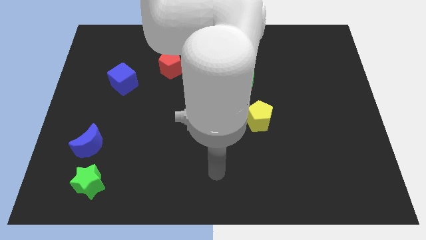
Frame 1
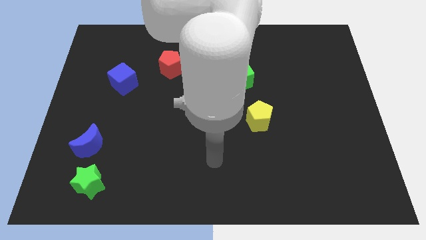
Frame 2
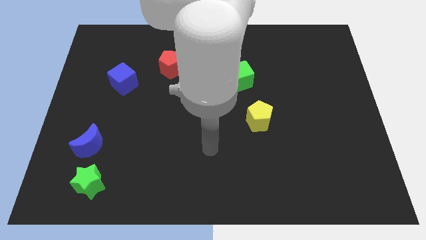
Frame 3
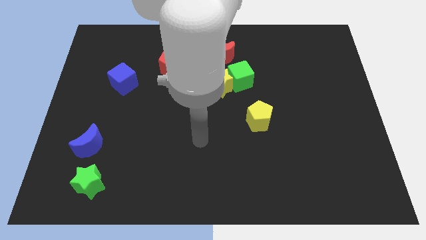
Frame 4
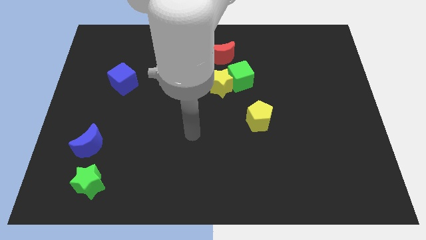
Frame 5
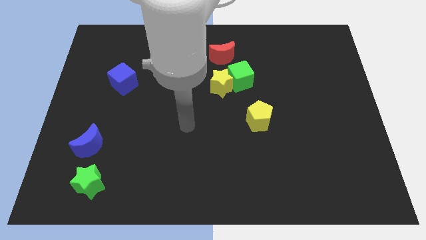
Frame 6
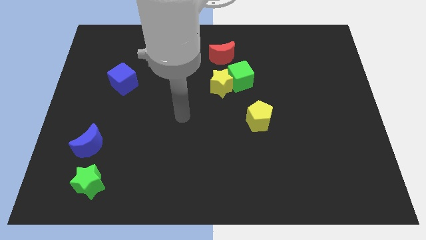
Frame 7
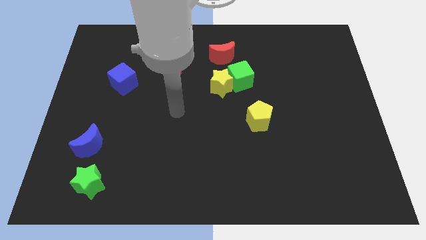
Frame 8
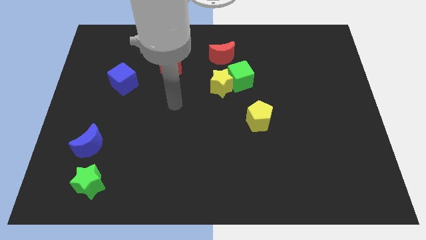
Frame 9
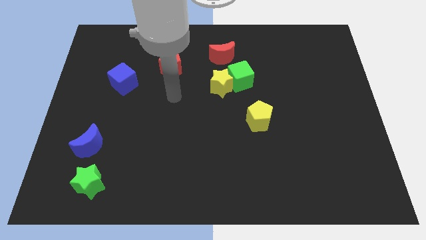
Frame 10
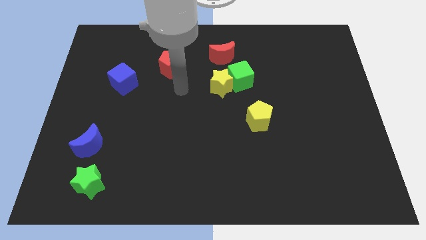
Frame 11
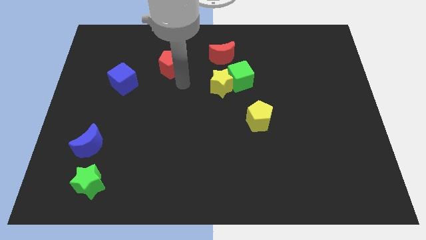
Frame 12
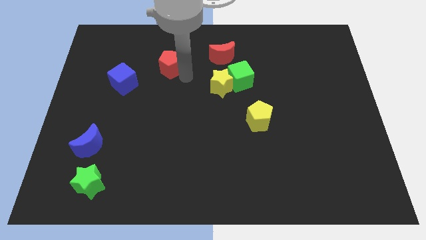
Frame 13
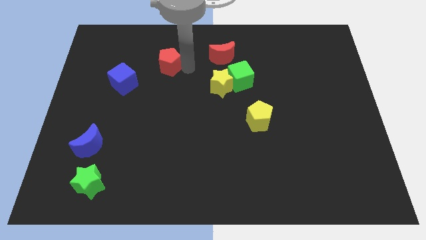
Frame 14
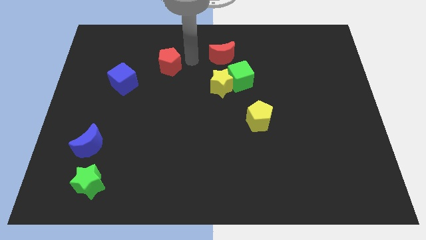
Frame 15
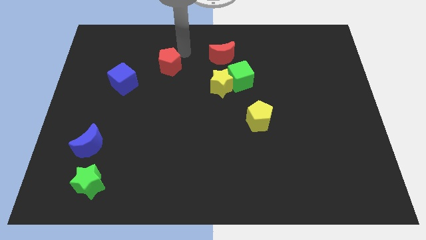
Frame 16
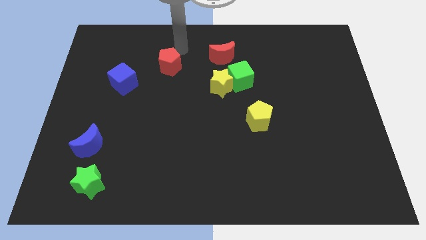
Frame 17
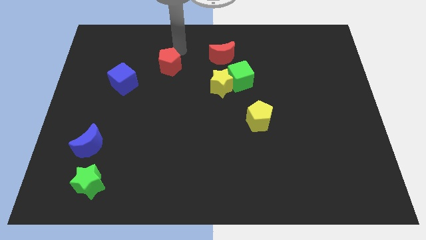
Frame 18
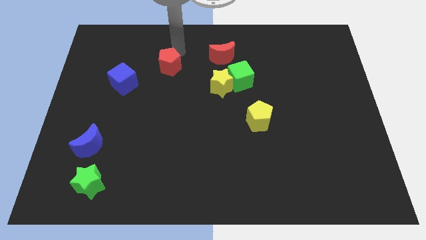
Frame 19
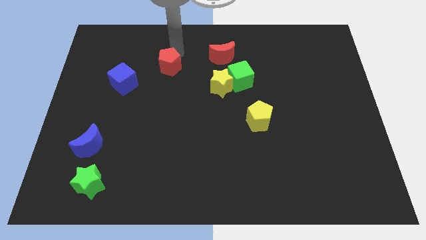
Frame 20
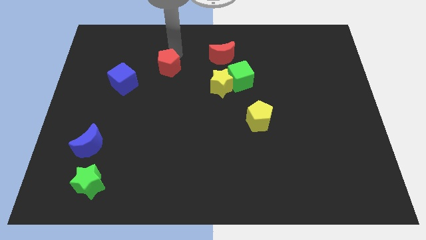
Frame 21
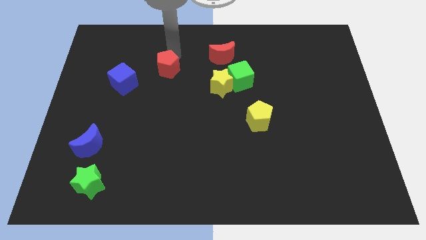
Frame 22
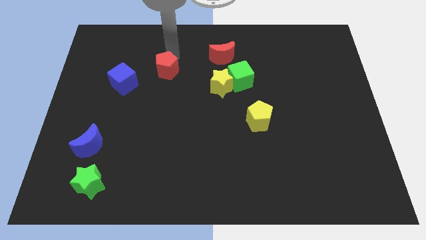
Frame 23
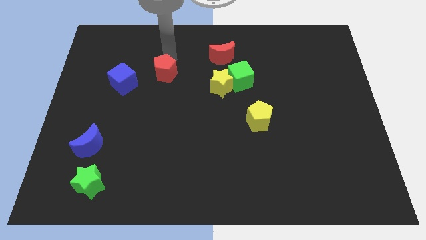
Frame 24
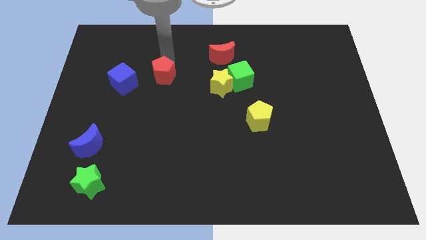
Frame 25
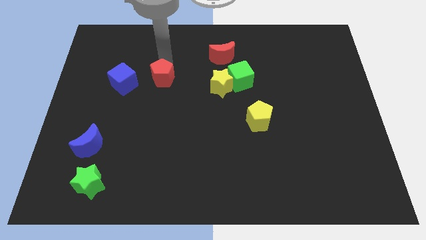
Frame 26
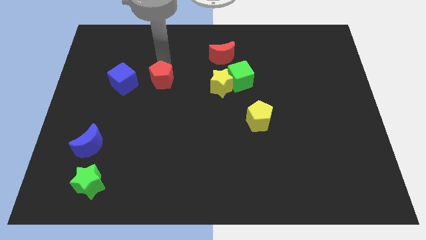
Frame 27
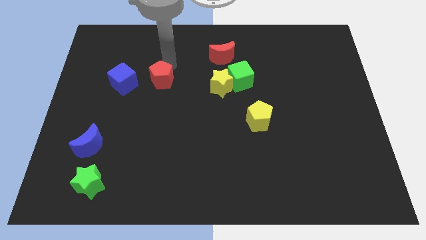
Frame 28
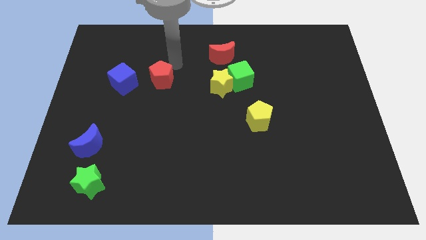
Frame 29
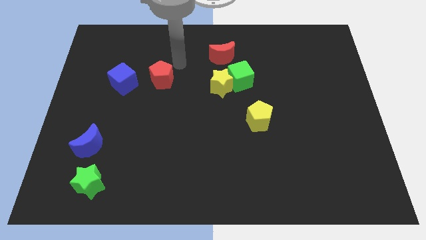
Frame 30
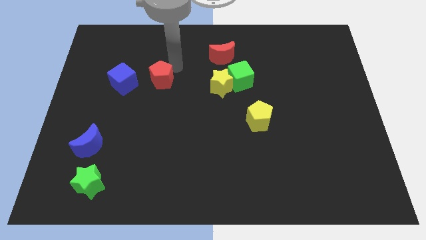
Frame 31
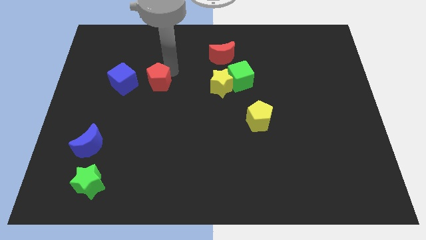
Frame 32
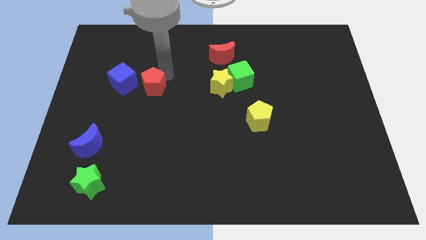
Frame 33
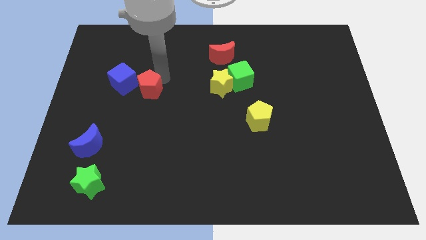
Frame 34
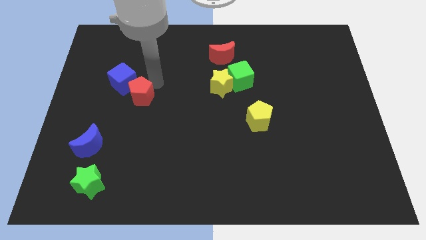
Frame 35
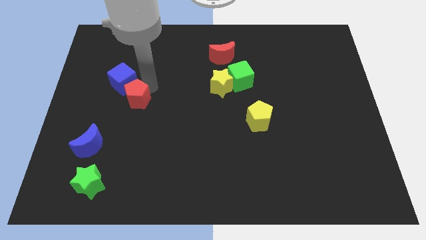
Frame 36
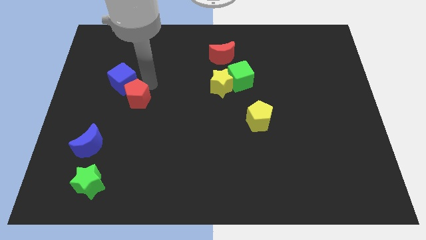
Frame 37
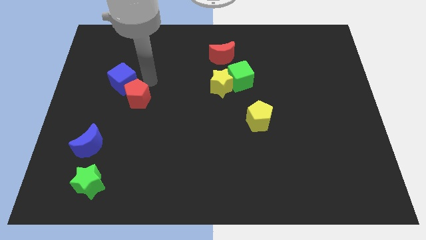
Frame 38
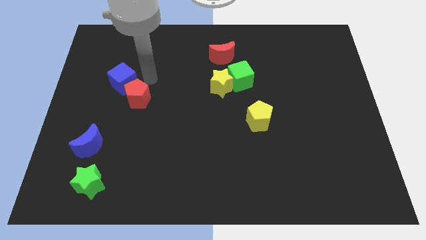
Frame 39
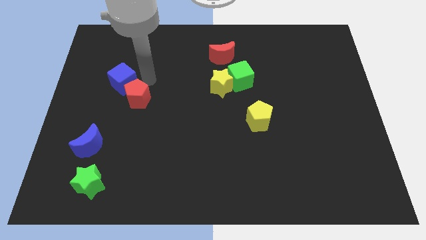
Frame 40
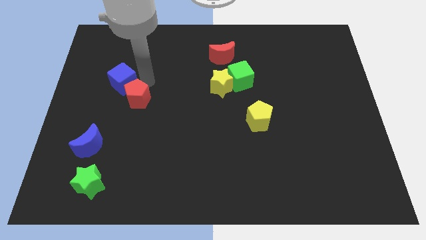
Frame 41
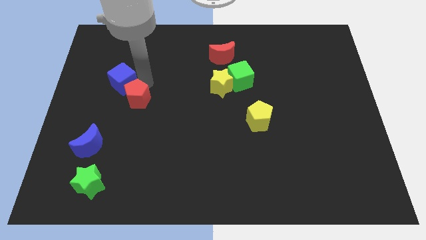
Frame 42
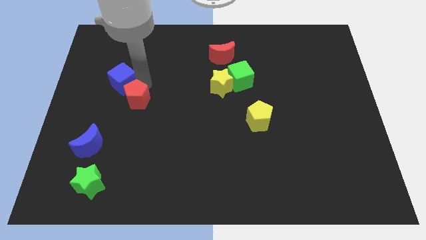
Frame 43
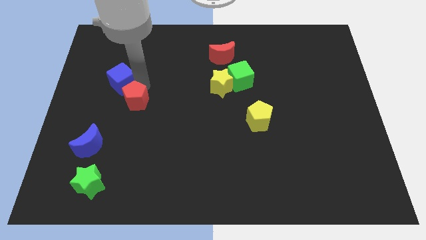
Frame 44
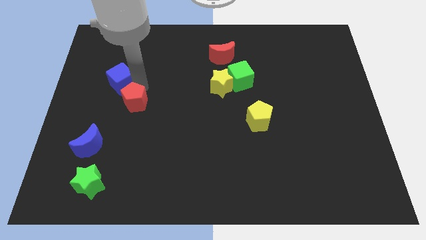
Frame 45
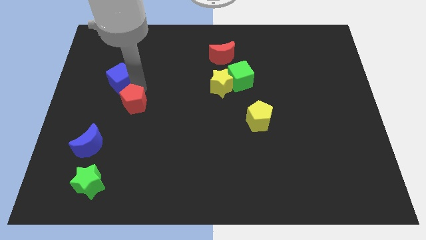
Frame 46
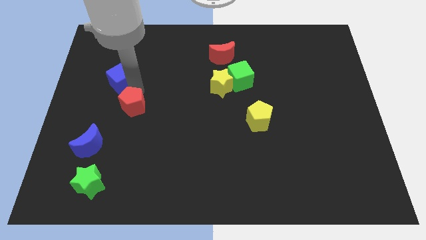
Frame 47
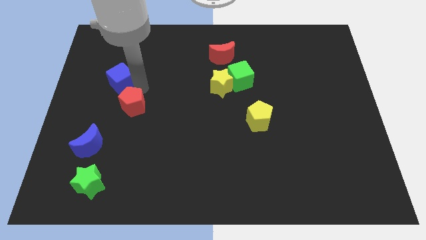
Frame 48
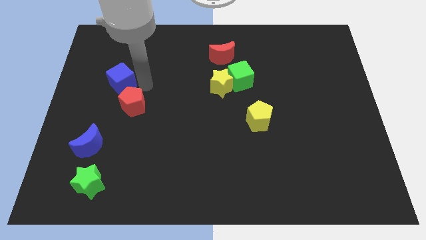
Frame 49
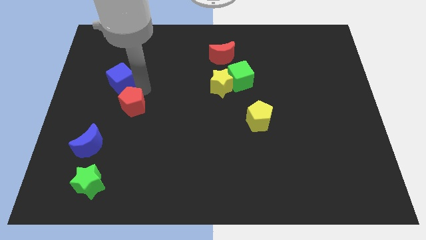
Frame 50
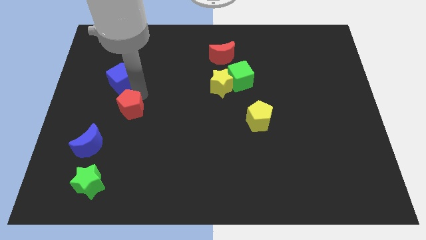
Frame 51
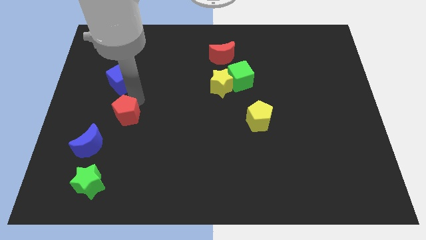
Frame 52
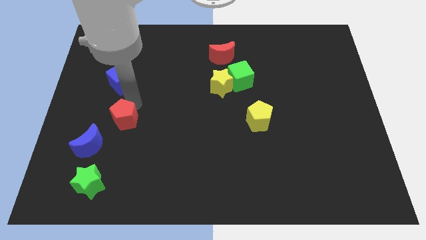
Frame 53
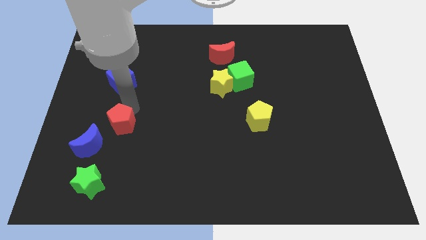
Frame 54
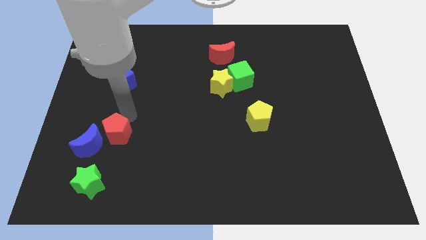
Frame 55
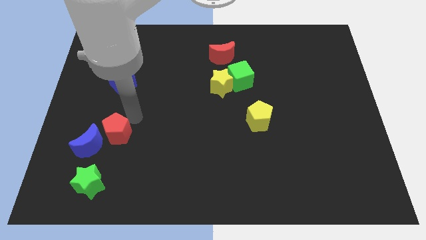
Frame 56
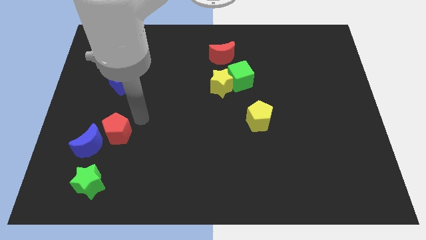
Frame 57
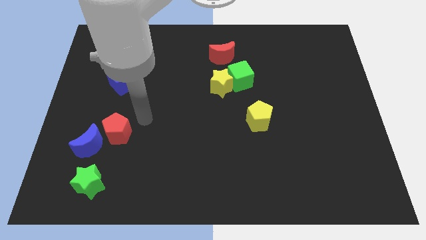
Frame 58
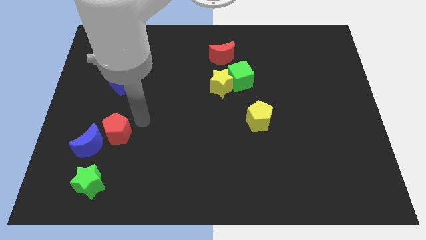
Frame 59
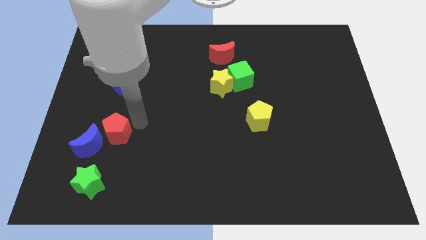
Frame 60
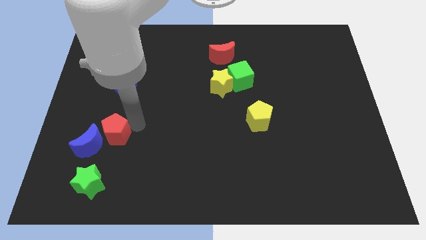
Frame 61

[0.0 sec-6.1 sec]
slide the red pentagon close to the blue moon

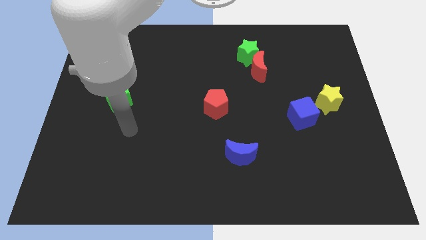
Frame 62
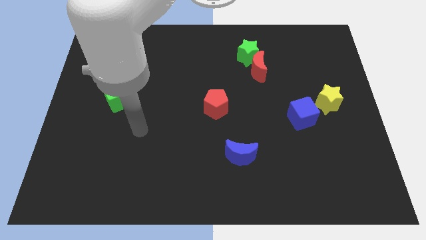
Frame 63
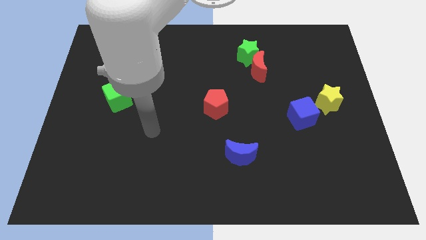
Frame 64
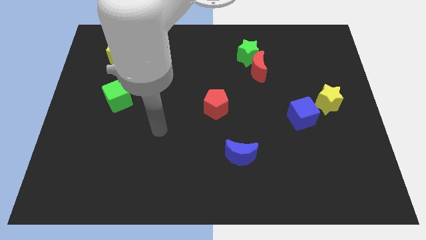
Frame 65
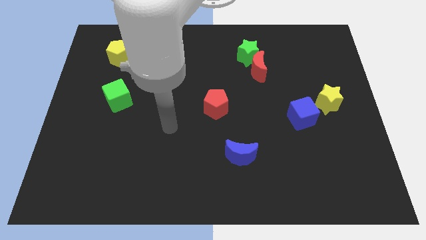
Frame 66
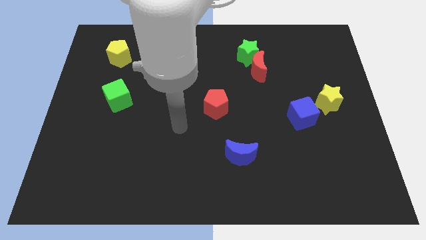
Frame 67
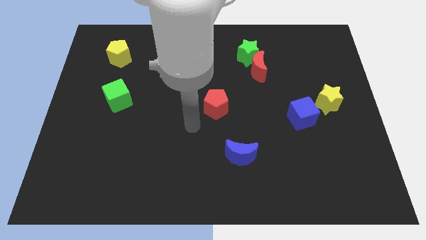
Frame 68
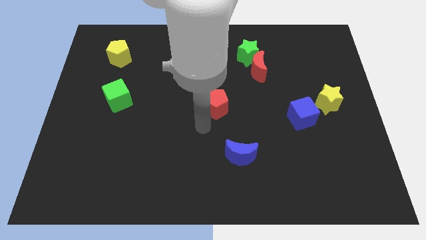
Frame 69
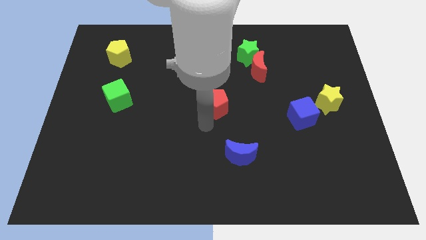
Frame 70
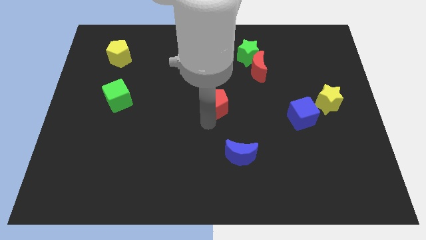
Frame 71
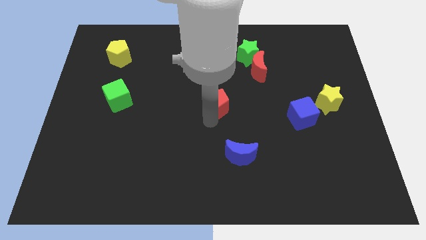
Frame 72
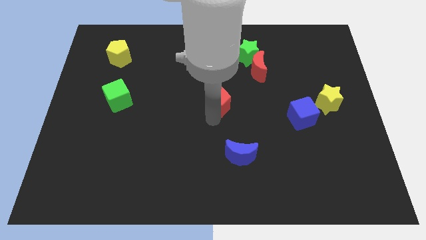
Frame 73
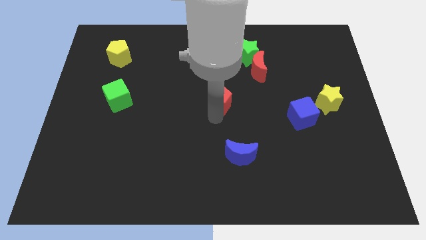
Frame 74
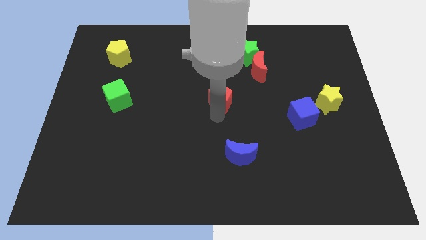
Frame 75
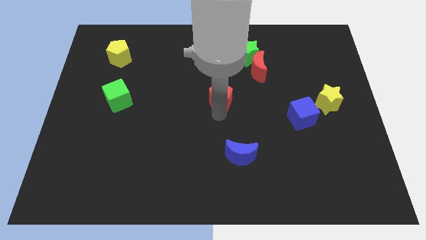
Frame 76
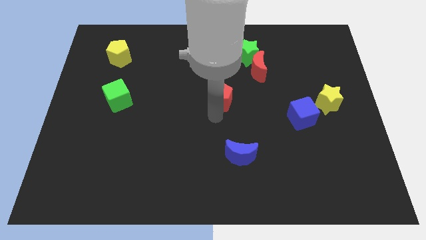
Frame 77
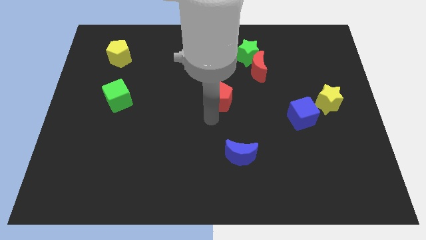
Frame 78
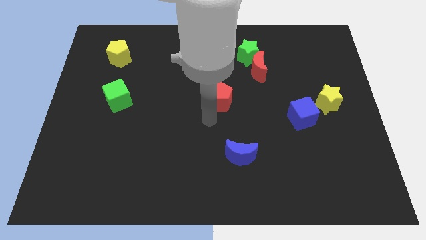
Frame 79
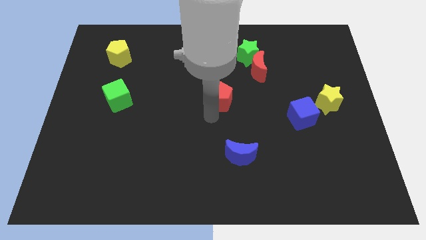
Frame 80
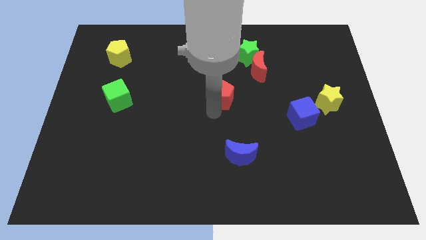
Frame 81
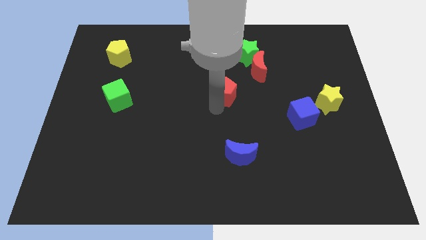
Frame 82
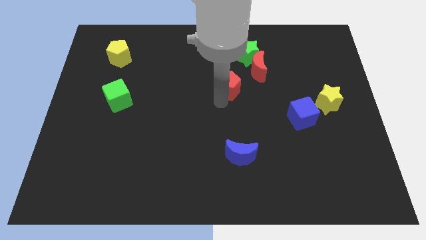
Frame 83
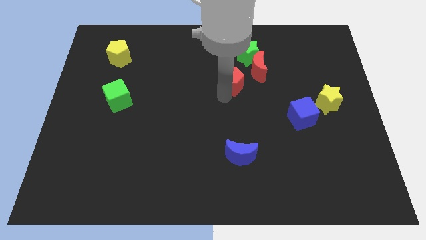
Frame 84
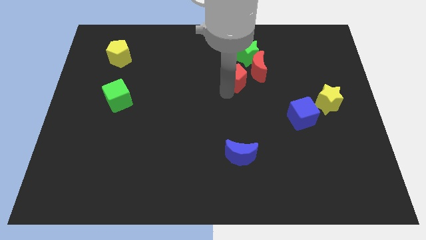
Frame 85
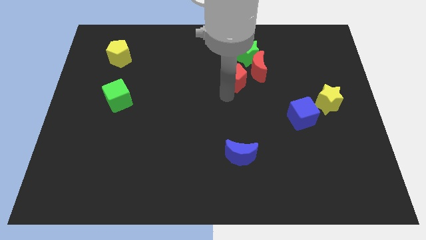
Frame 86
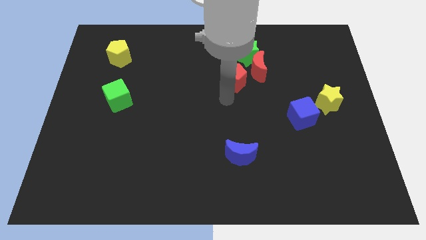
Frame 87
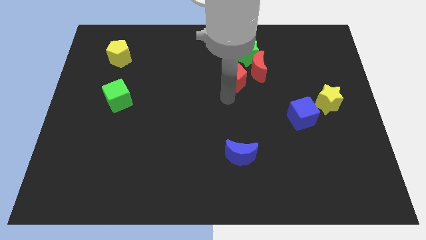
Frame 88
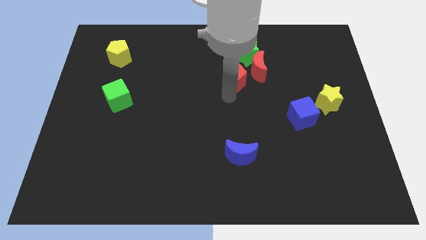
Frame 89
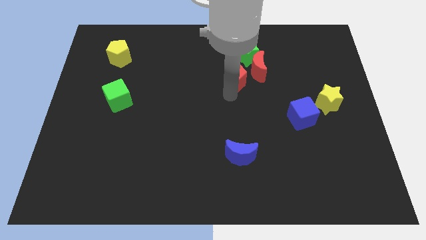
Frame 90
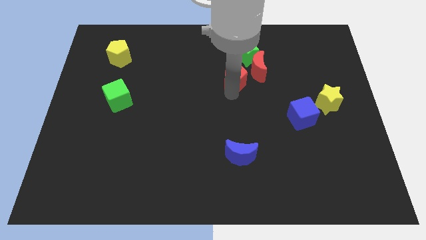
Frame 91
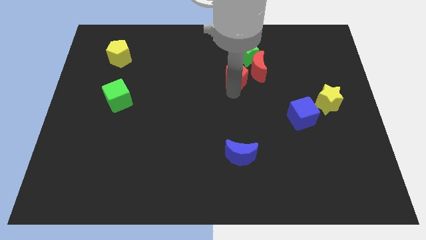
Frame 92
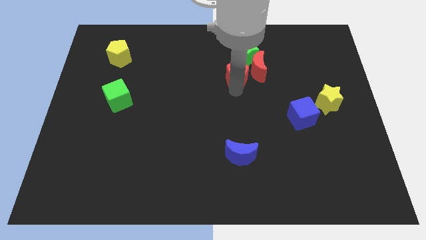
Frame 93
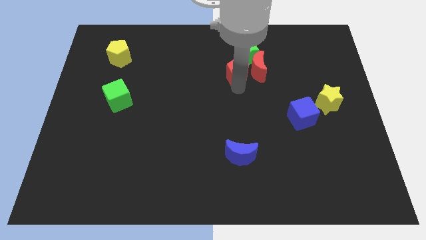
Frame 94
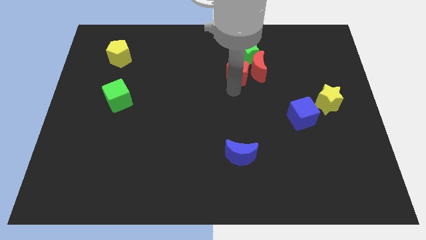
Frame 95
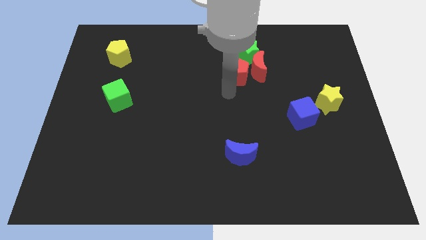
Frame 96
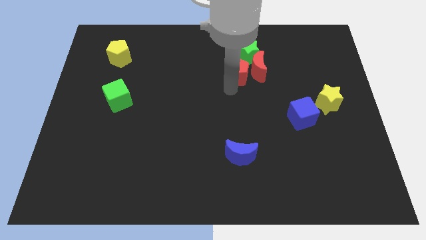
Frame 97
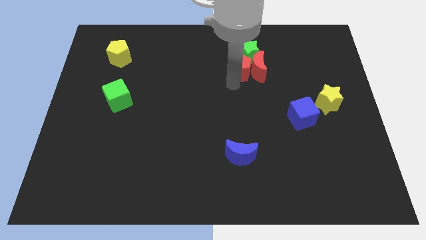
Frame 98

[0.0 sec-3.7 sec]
slide the red pentagon next to the green star
